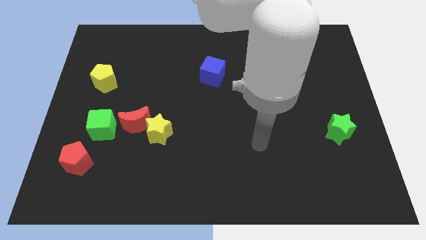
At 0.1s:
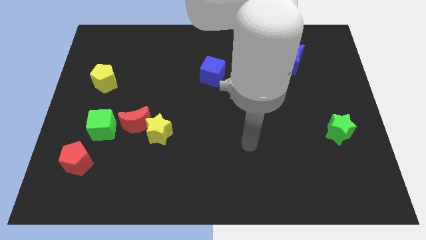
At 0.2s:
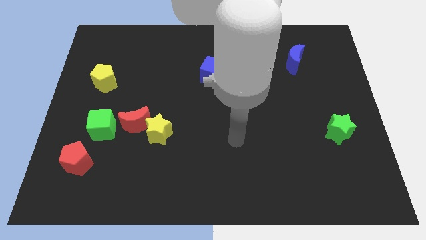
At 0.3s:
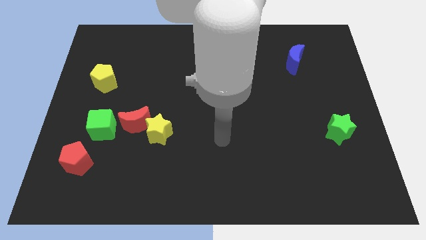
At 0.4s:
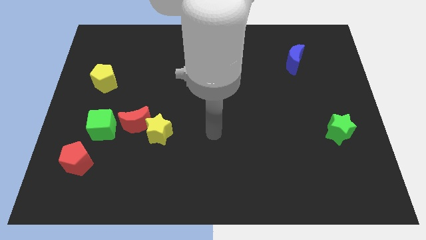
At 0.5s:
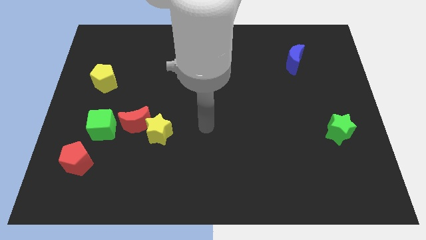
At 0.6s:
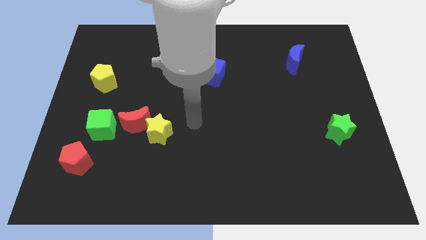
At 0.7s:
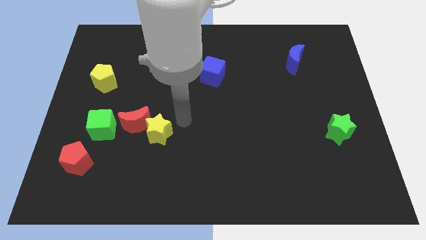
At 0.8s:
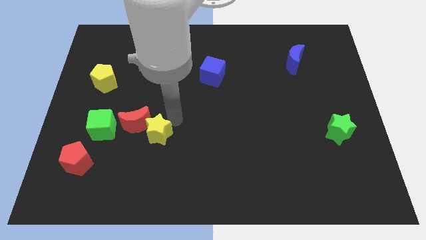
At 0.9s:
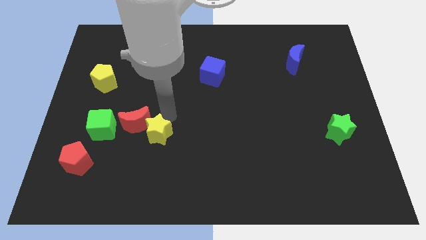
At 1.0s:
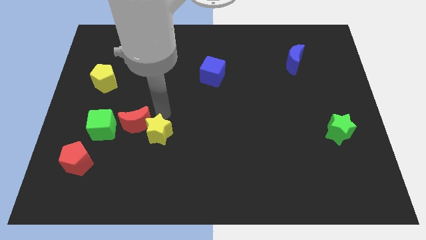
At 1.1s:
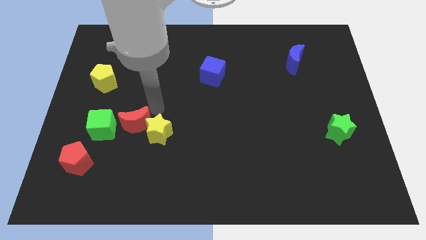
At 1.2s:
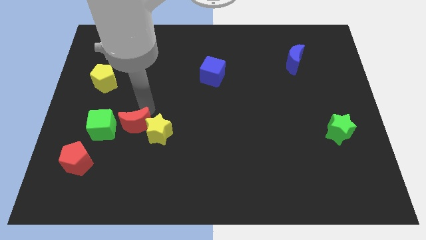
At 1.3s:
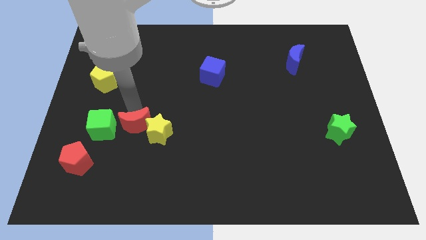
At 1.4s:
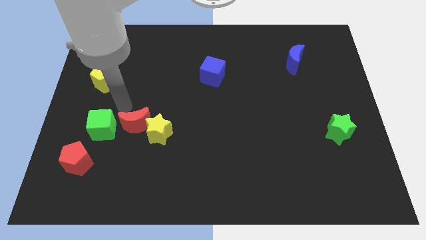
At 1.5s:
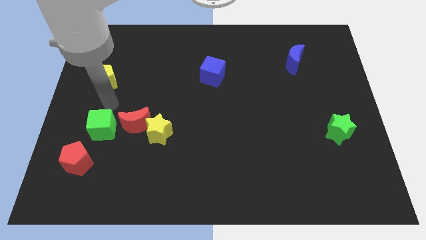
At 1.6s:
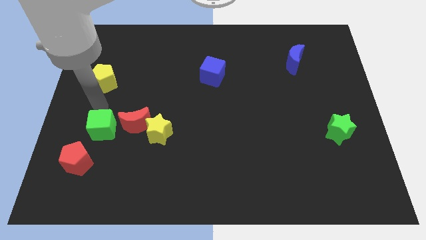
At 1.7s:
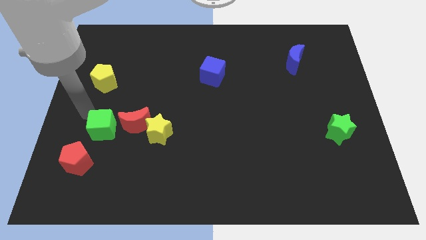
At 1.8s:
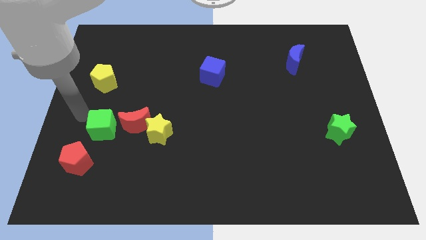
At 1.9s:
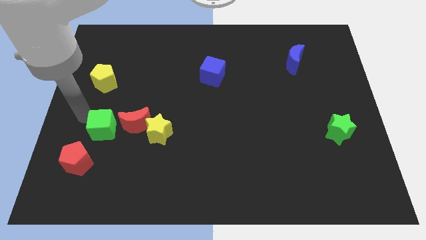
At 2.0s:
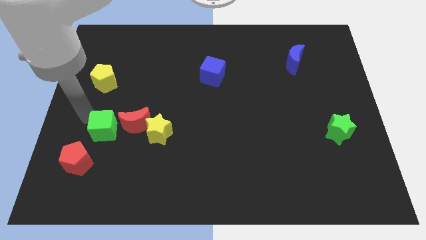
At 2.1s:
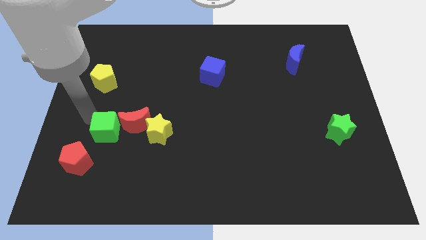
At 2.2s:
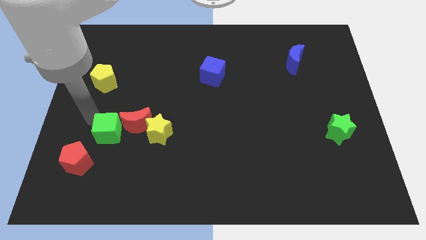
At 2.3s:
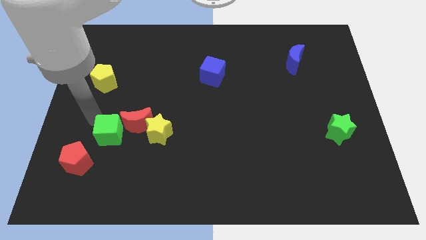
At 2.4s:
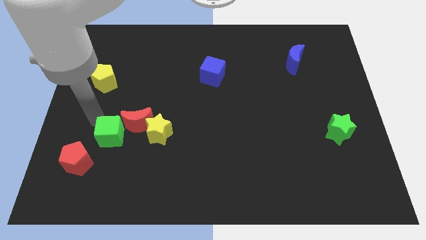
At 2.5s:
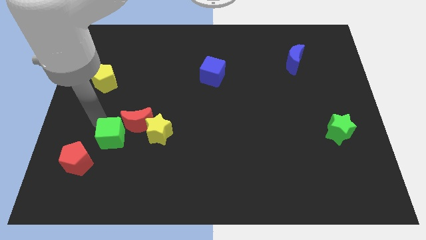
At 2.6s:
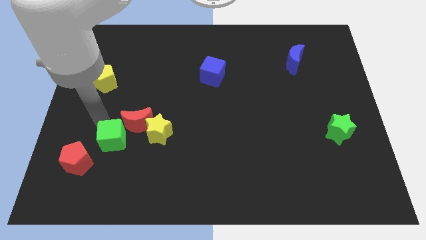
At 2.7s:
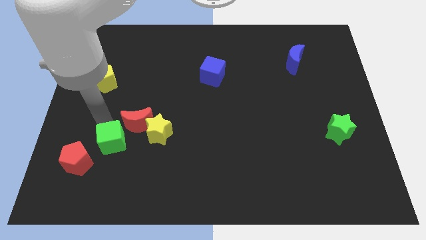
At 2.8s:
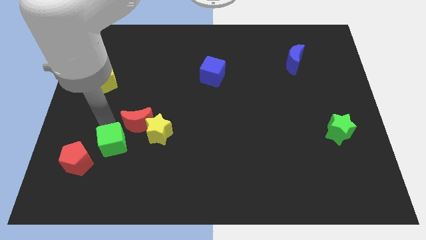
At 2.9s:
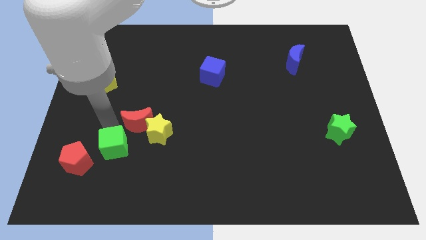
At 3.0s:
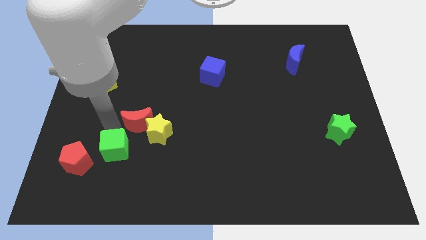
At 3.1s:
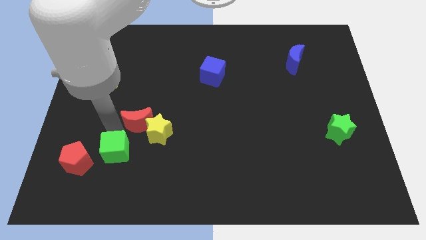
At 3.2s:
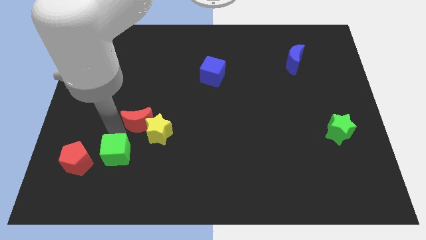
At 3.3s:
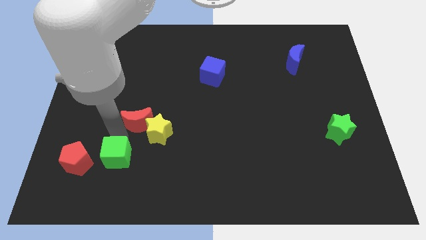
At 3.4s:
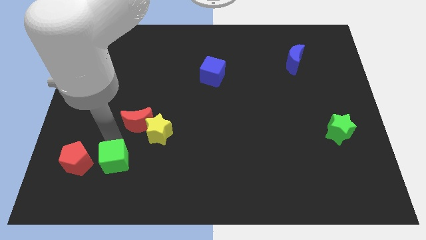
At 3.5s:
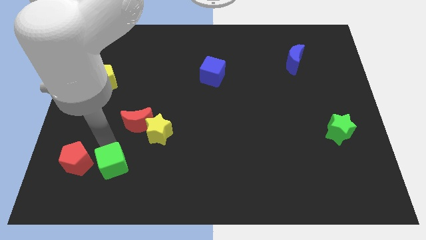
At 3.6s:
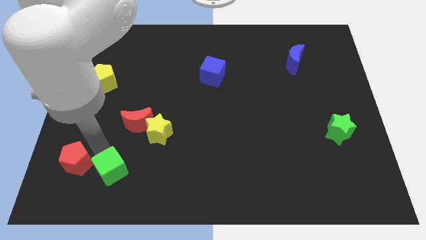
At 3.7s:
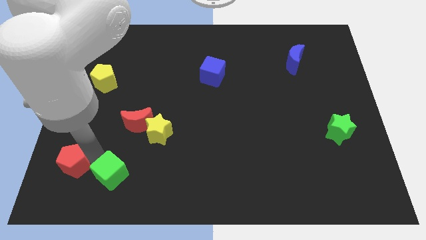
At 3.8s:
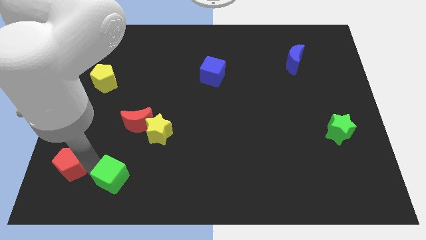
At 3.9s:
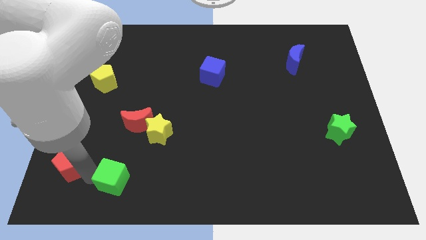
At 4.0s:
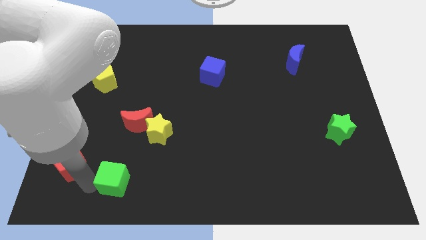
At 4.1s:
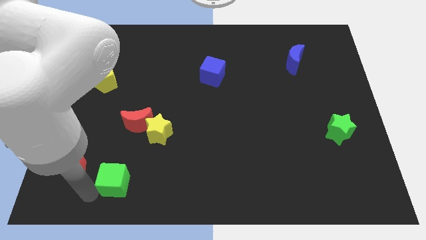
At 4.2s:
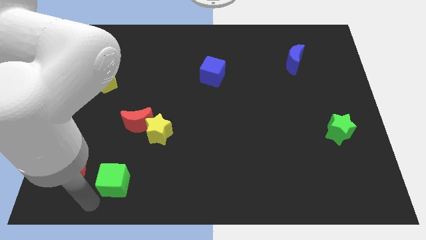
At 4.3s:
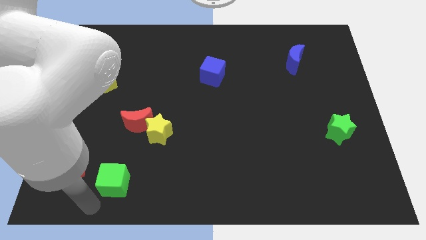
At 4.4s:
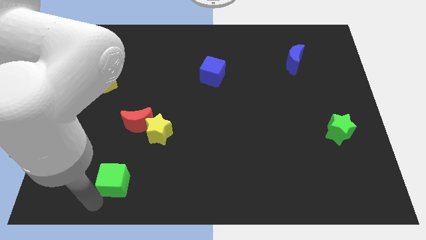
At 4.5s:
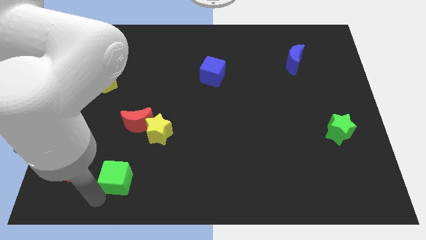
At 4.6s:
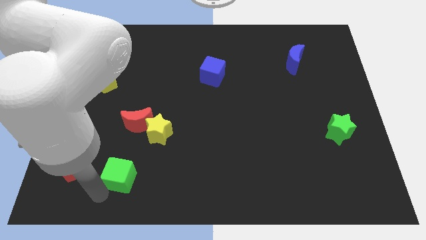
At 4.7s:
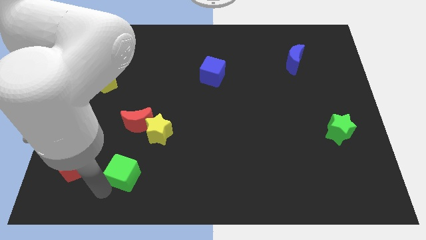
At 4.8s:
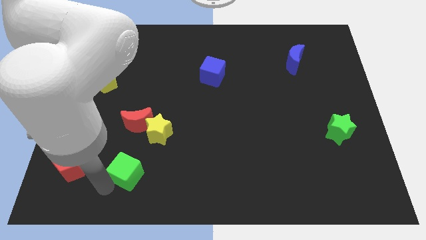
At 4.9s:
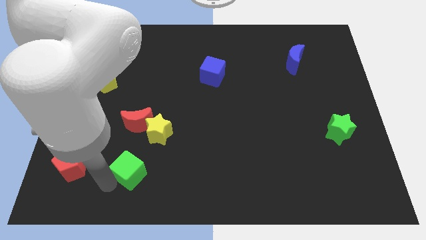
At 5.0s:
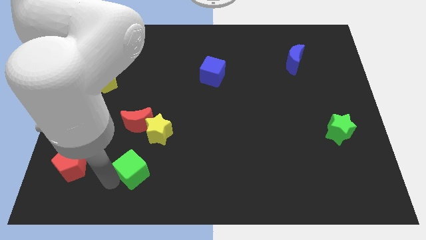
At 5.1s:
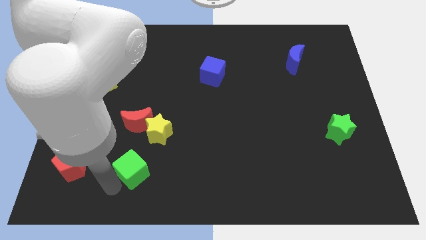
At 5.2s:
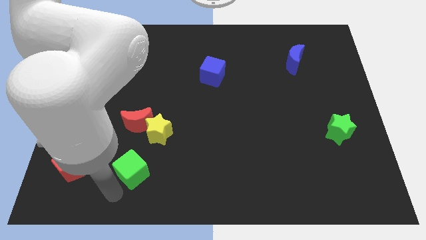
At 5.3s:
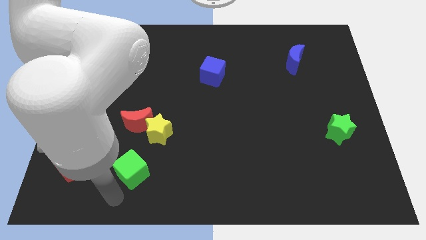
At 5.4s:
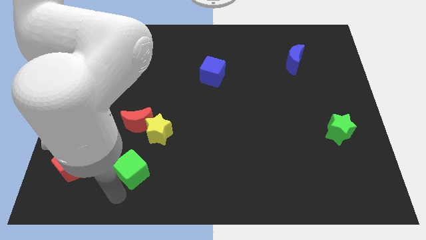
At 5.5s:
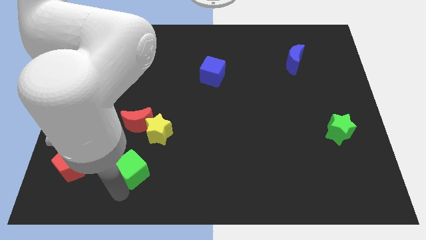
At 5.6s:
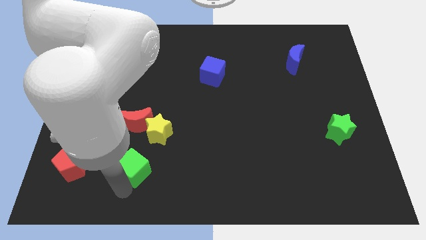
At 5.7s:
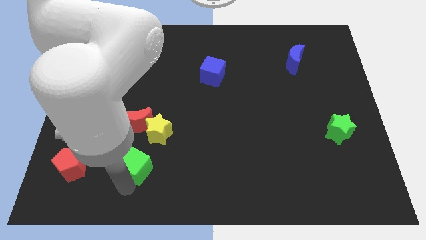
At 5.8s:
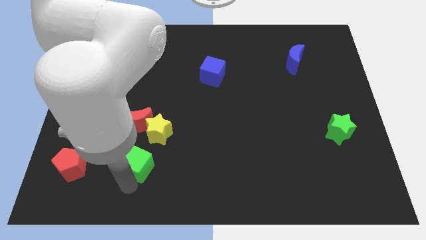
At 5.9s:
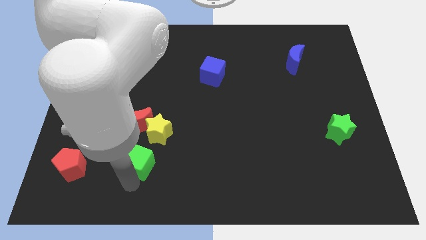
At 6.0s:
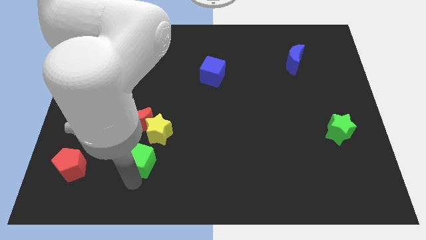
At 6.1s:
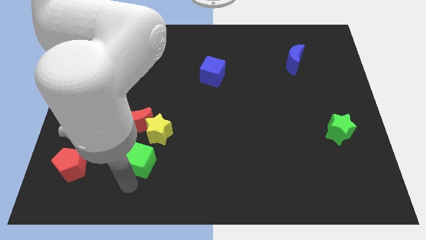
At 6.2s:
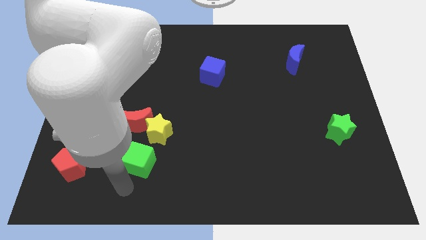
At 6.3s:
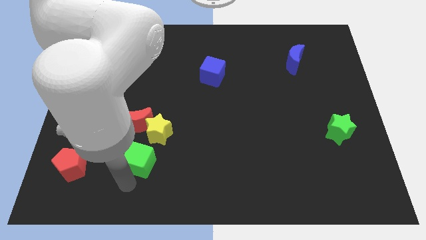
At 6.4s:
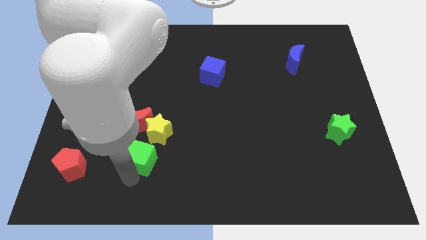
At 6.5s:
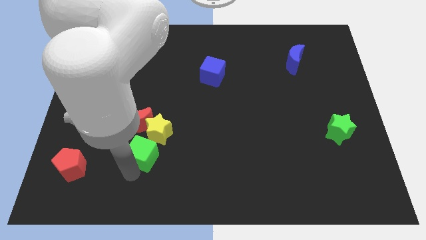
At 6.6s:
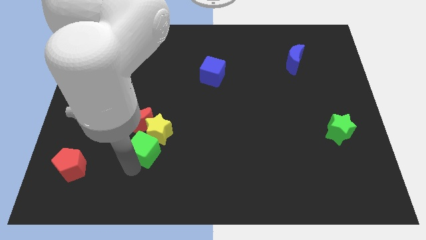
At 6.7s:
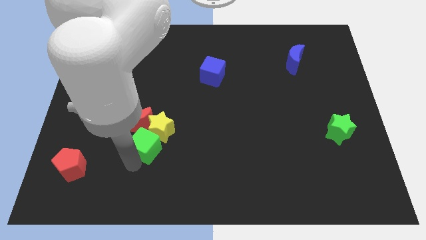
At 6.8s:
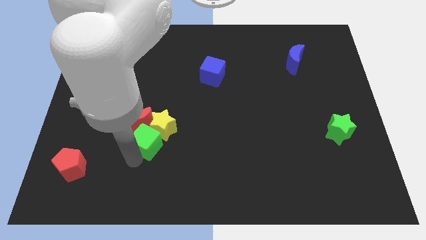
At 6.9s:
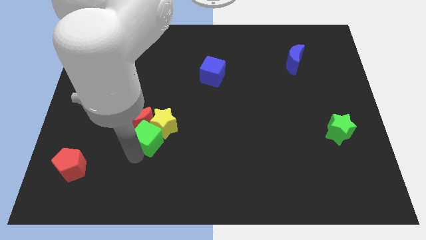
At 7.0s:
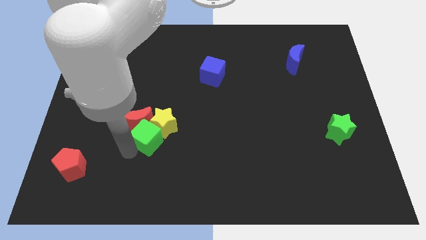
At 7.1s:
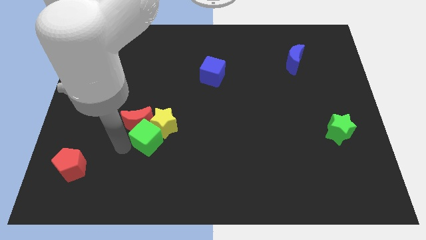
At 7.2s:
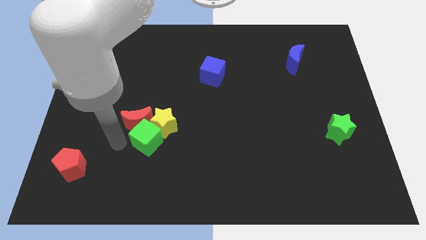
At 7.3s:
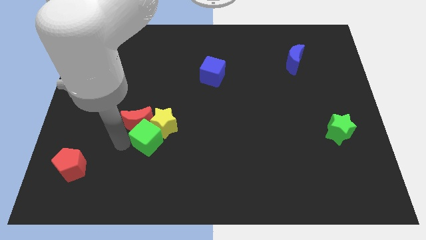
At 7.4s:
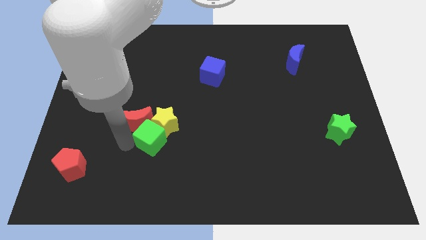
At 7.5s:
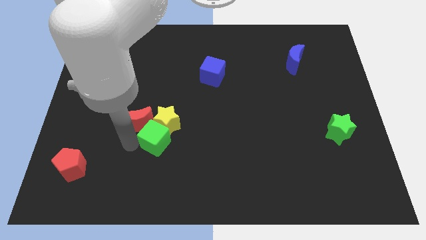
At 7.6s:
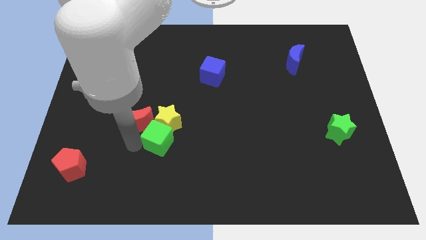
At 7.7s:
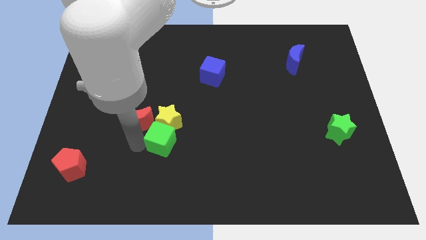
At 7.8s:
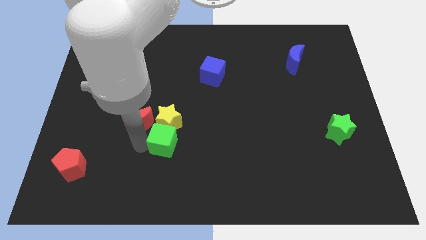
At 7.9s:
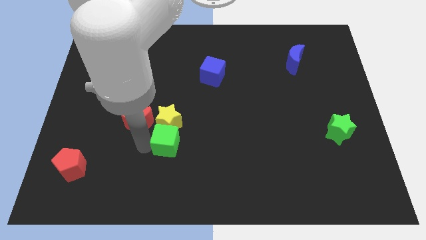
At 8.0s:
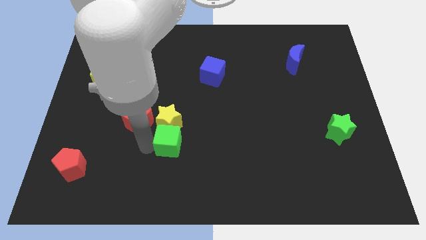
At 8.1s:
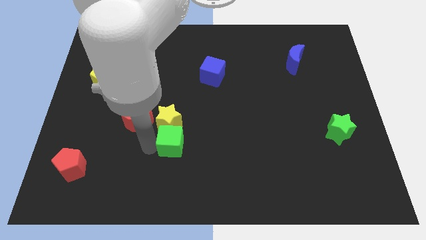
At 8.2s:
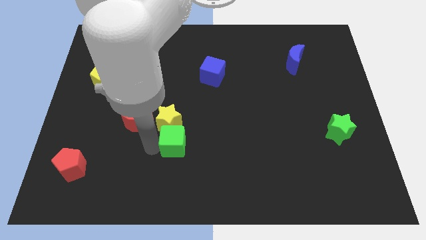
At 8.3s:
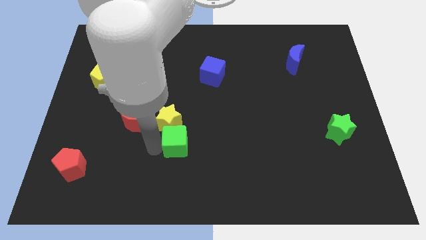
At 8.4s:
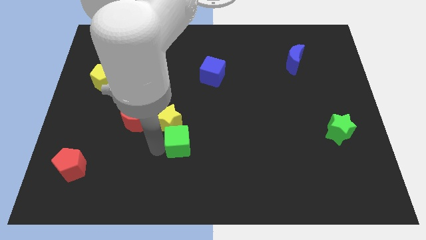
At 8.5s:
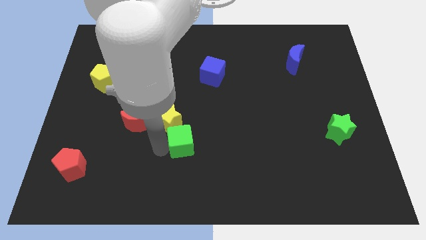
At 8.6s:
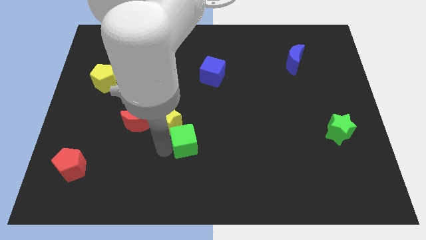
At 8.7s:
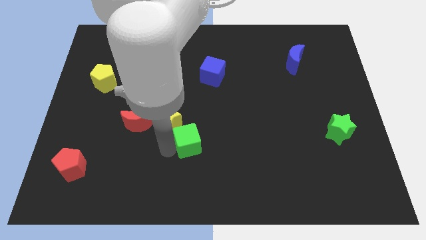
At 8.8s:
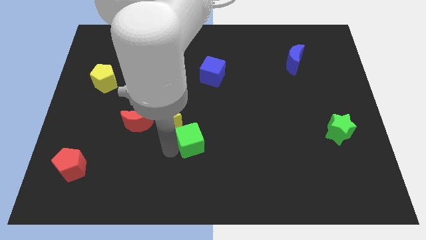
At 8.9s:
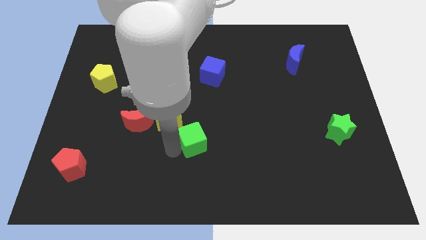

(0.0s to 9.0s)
move the green cube right
